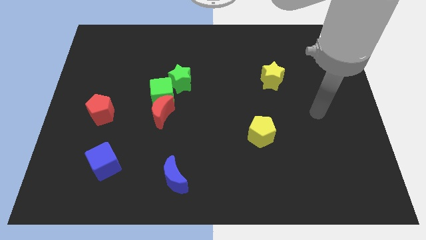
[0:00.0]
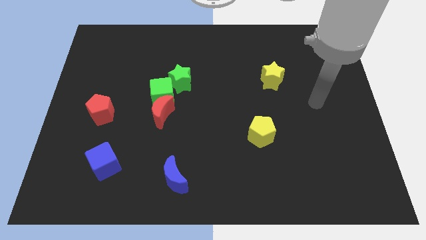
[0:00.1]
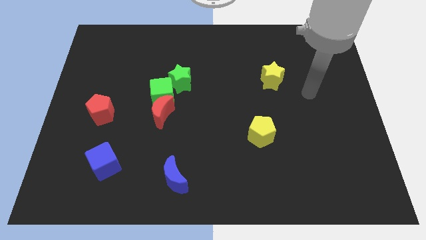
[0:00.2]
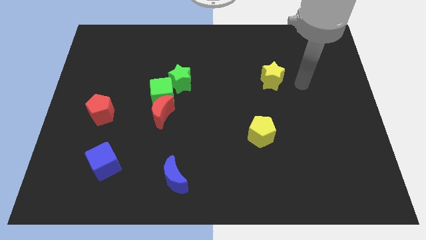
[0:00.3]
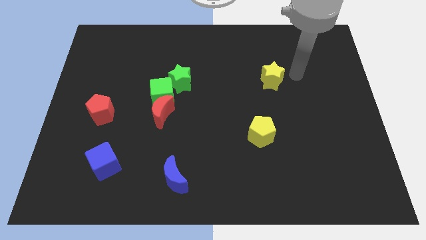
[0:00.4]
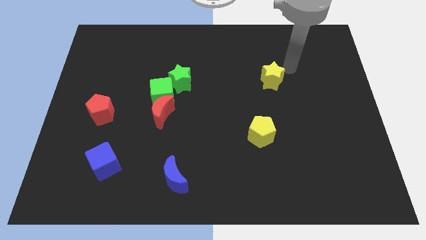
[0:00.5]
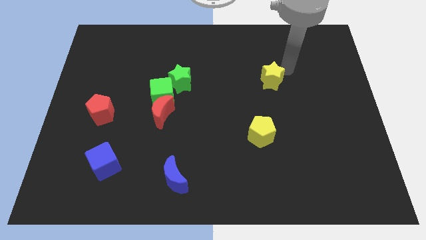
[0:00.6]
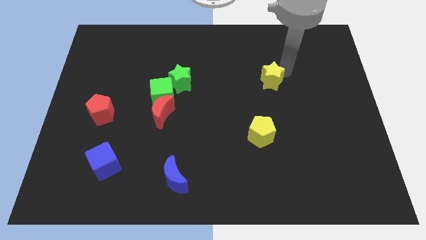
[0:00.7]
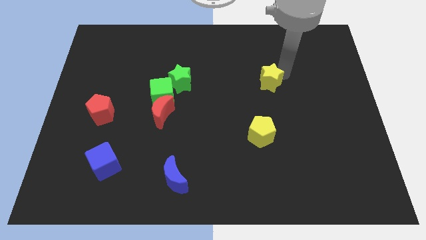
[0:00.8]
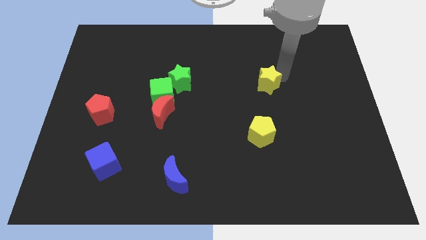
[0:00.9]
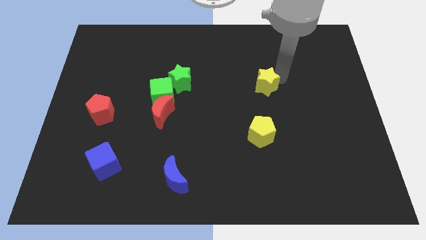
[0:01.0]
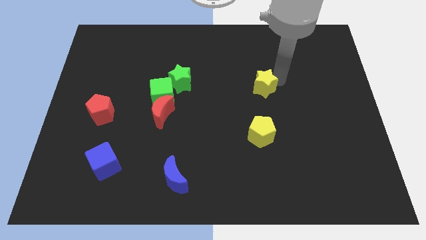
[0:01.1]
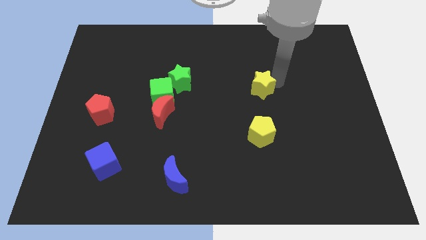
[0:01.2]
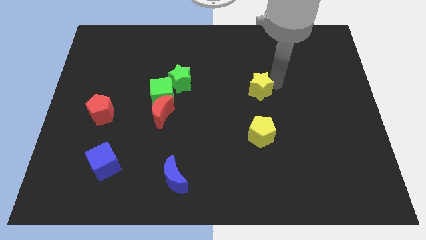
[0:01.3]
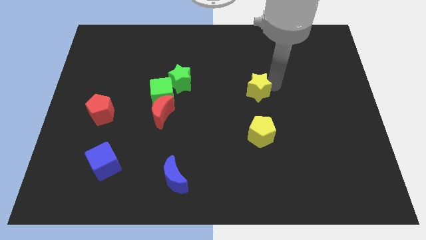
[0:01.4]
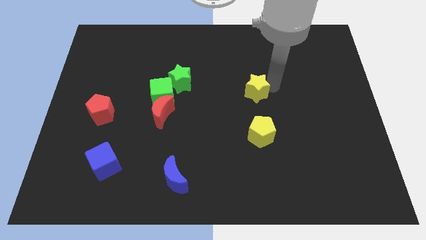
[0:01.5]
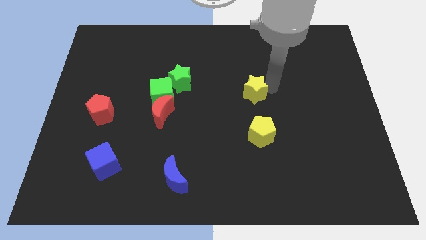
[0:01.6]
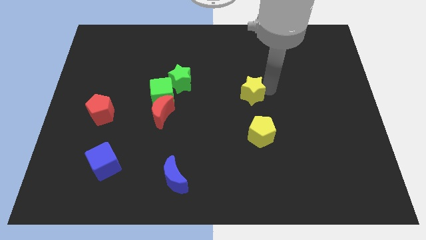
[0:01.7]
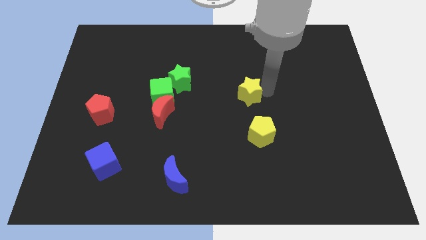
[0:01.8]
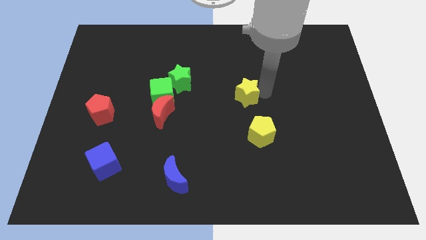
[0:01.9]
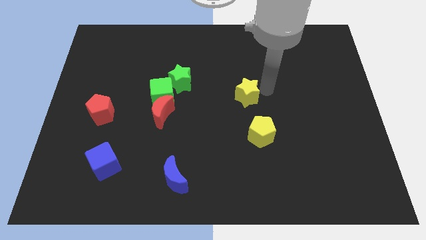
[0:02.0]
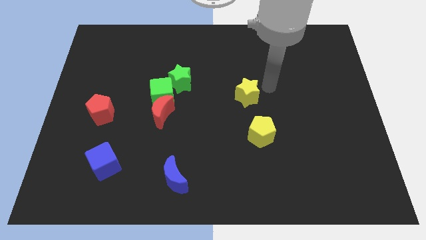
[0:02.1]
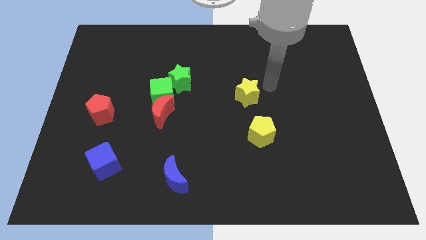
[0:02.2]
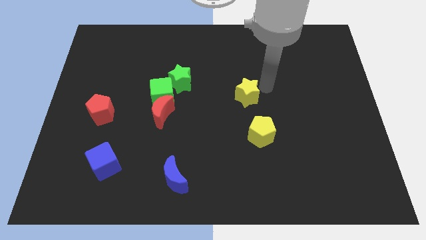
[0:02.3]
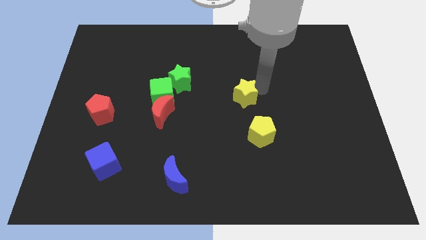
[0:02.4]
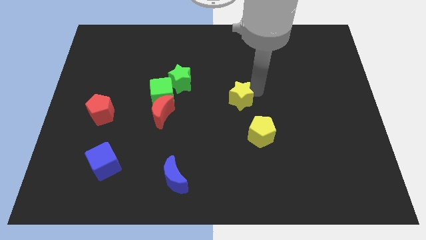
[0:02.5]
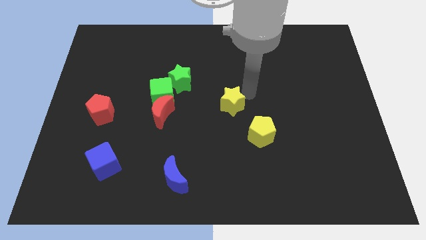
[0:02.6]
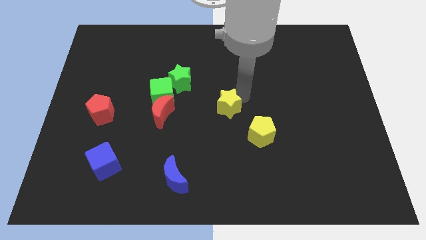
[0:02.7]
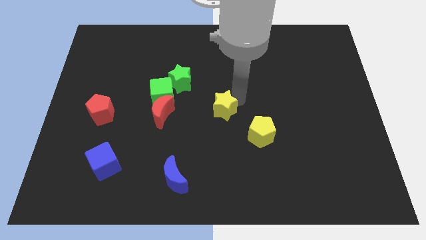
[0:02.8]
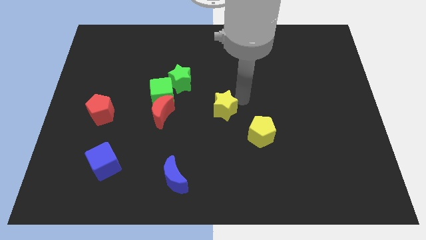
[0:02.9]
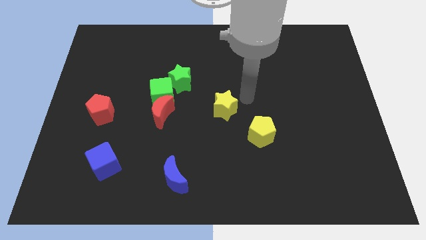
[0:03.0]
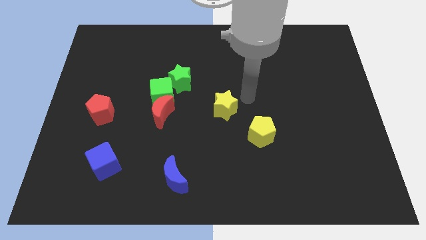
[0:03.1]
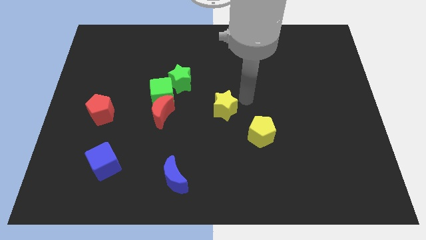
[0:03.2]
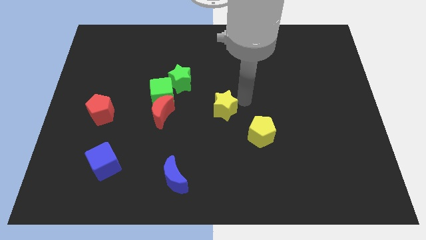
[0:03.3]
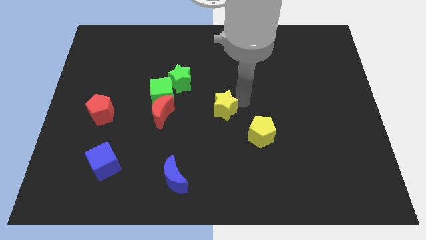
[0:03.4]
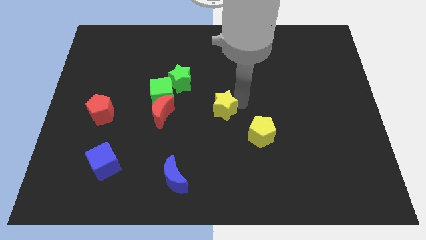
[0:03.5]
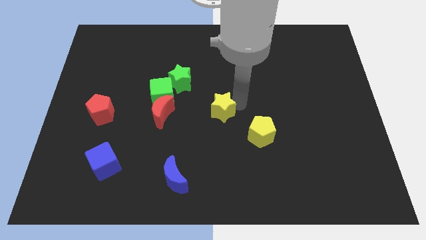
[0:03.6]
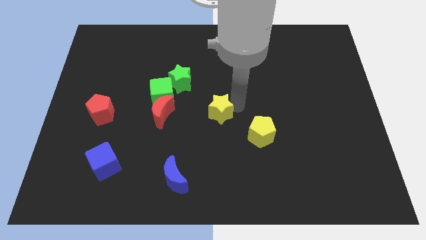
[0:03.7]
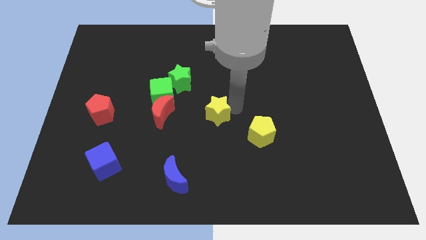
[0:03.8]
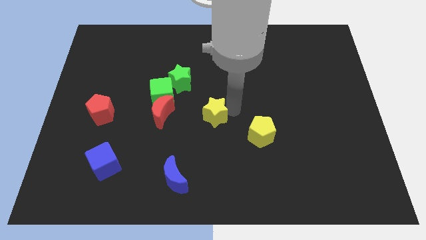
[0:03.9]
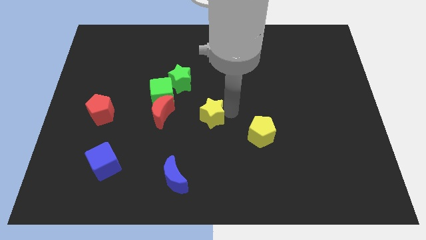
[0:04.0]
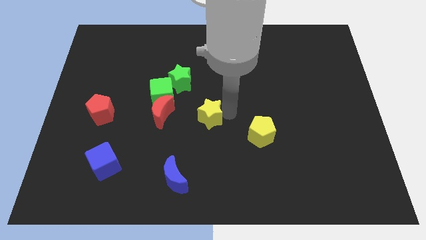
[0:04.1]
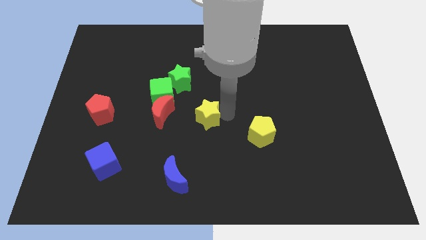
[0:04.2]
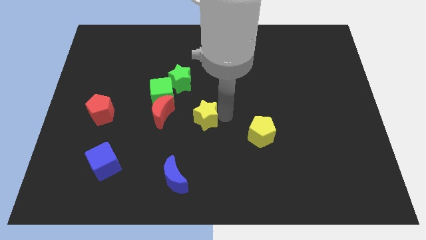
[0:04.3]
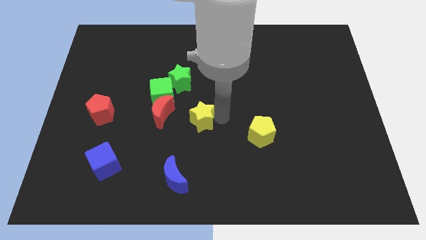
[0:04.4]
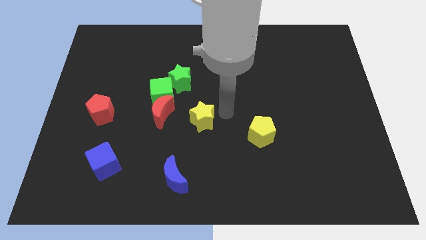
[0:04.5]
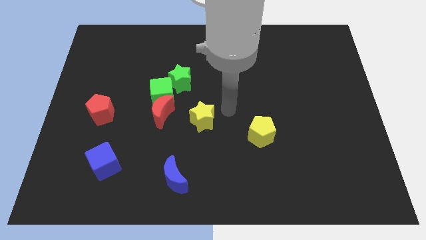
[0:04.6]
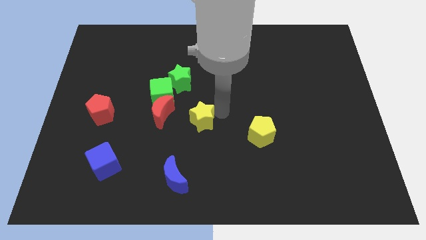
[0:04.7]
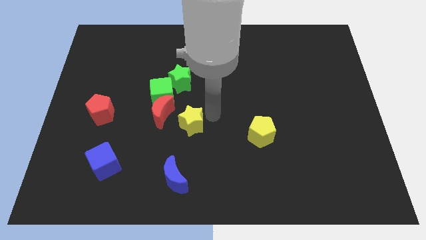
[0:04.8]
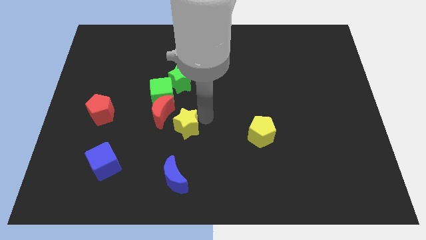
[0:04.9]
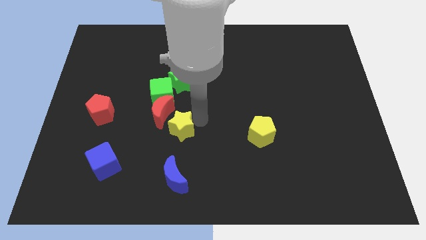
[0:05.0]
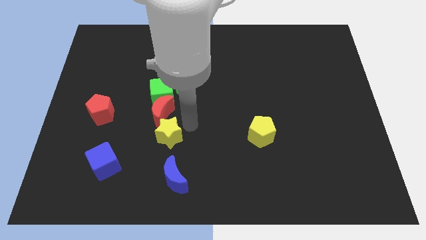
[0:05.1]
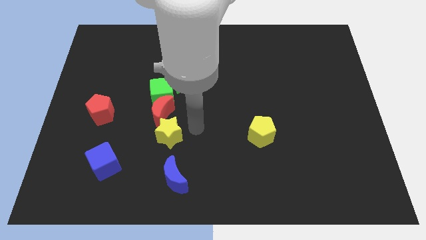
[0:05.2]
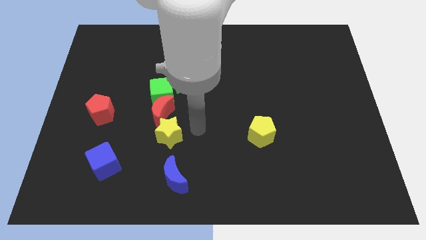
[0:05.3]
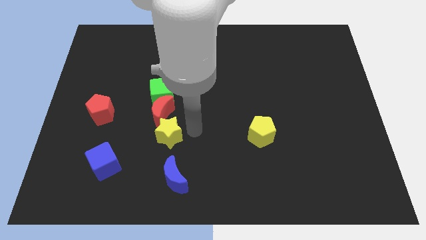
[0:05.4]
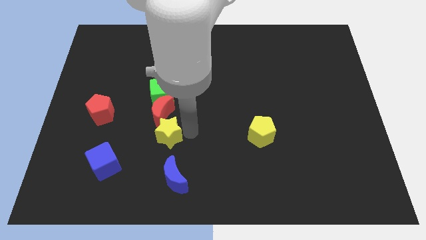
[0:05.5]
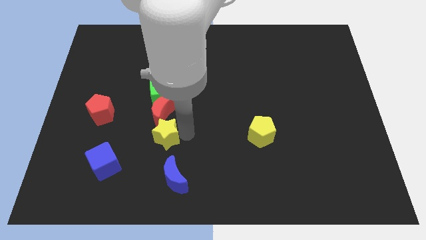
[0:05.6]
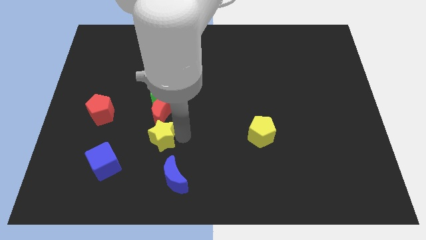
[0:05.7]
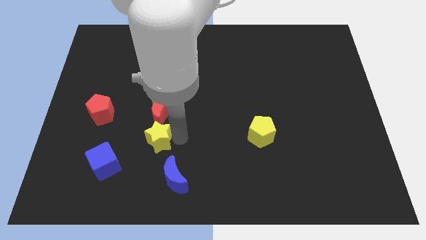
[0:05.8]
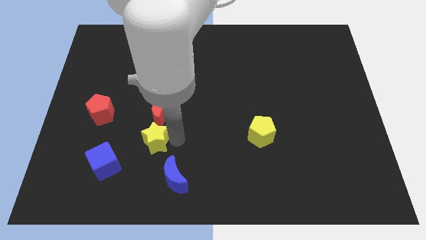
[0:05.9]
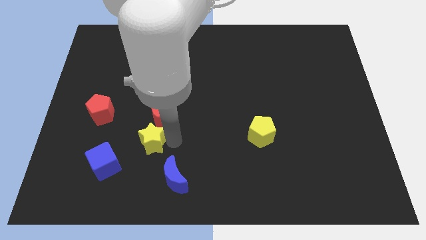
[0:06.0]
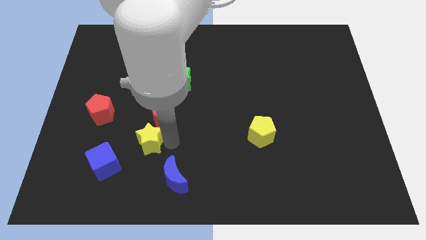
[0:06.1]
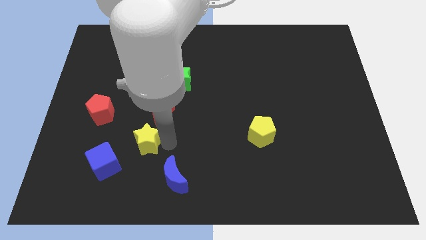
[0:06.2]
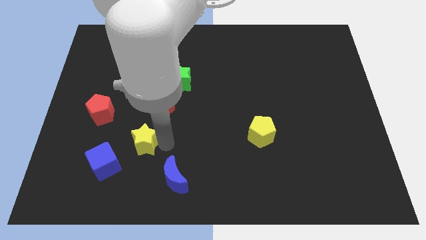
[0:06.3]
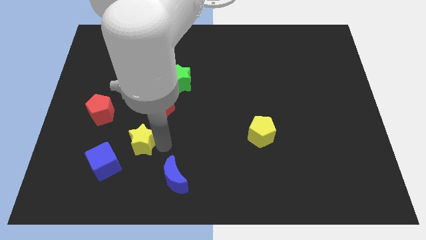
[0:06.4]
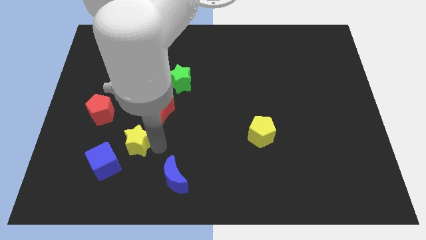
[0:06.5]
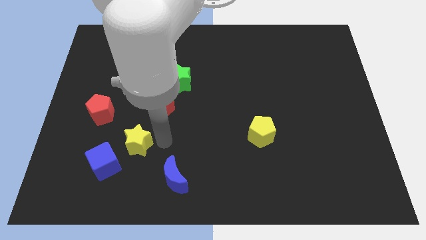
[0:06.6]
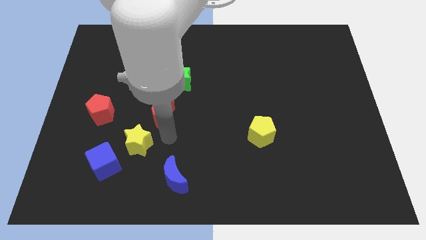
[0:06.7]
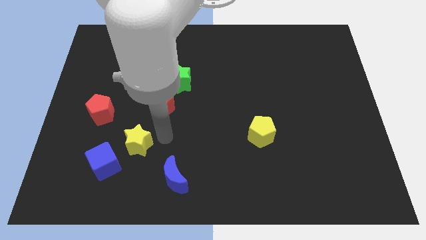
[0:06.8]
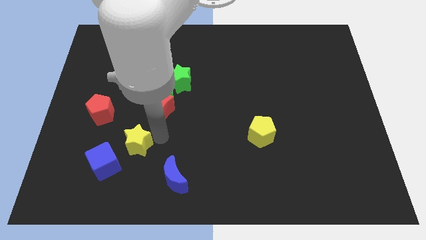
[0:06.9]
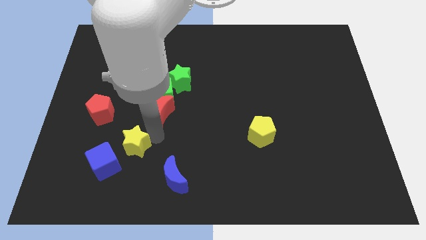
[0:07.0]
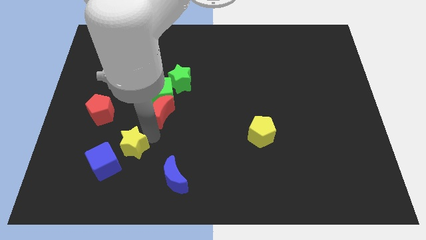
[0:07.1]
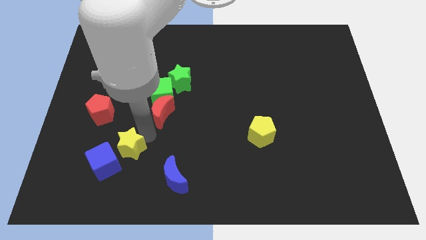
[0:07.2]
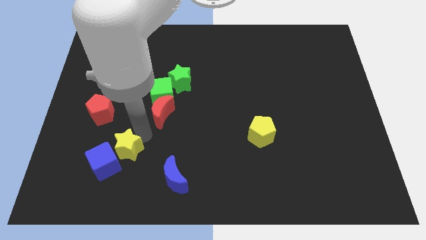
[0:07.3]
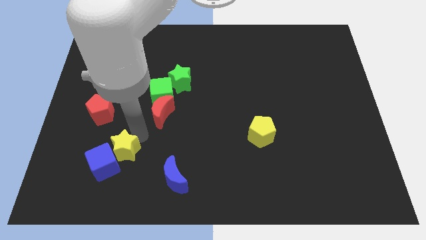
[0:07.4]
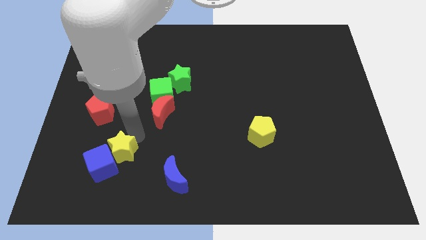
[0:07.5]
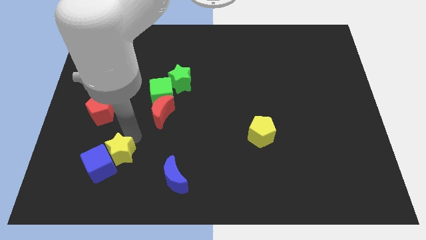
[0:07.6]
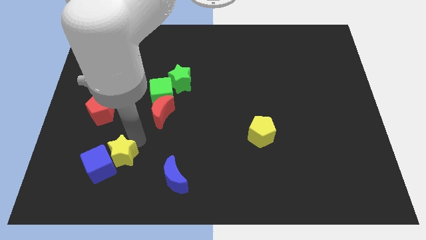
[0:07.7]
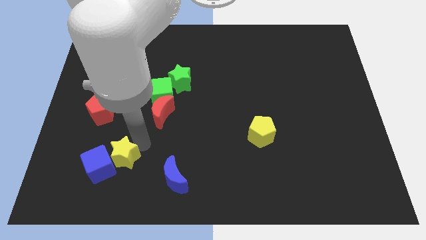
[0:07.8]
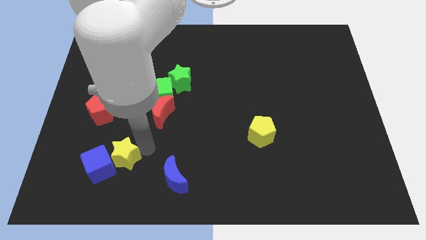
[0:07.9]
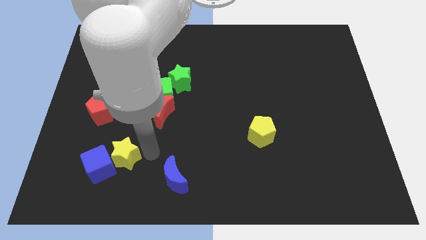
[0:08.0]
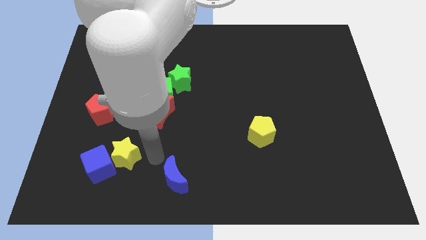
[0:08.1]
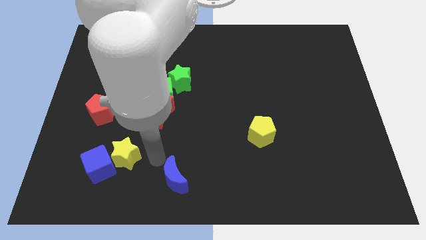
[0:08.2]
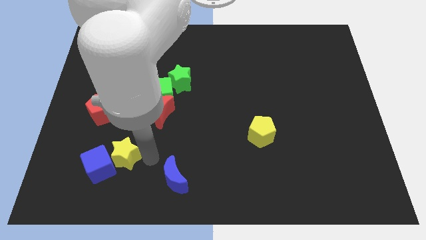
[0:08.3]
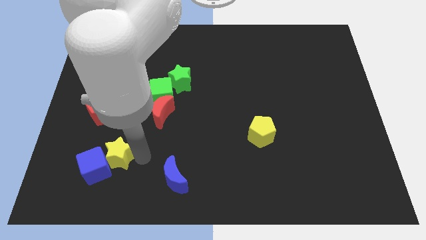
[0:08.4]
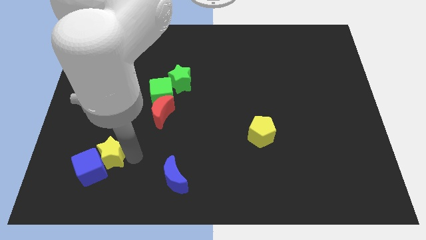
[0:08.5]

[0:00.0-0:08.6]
push the yellow star to the bottom of the red pentagon
